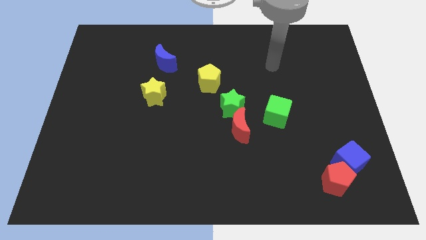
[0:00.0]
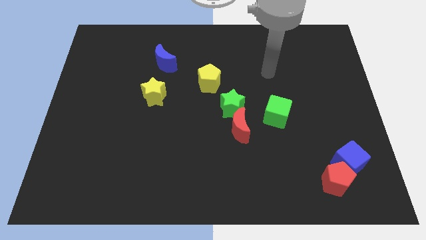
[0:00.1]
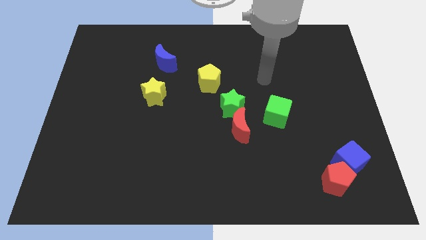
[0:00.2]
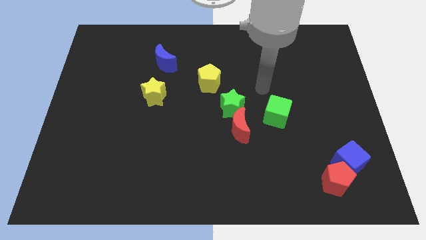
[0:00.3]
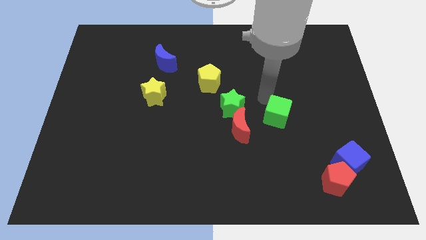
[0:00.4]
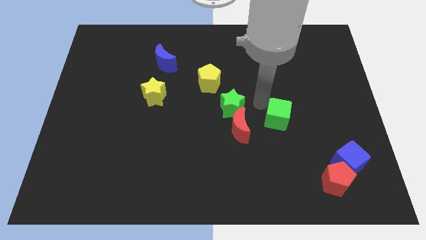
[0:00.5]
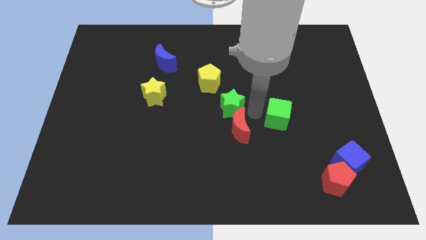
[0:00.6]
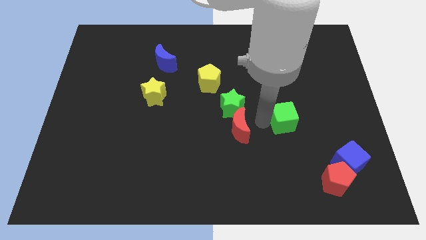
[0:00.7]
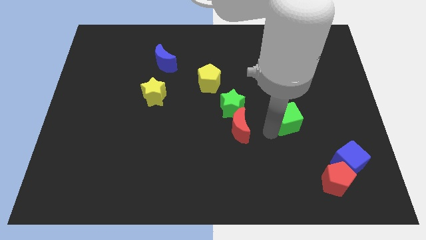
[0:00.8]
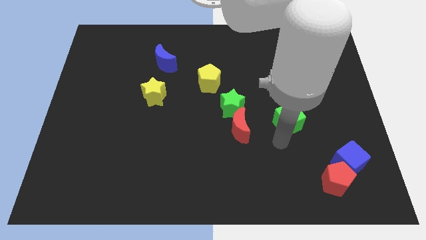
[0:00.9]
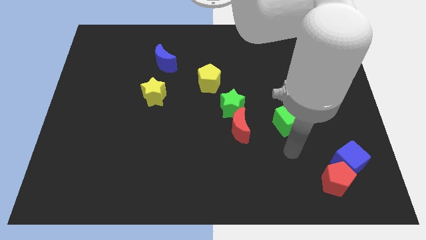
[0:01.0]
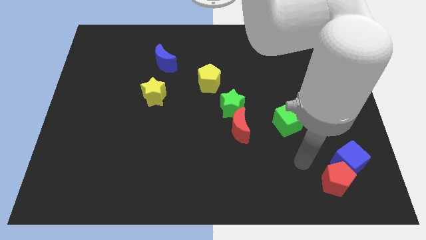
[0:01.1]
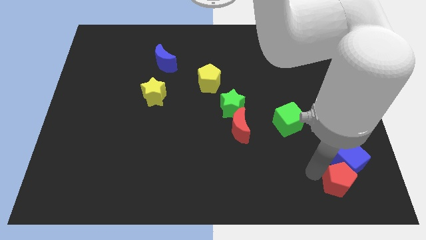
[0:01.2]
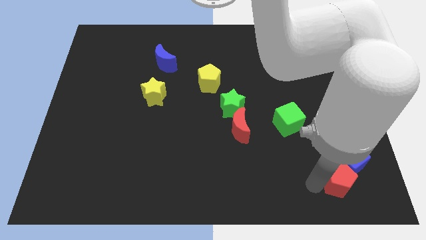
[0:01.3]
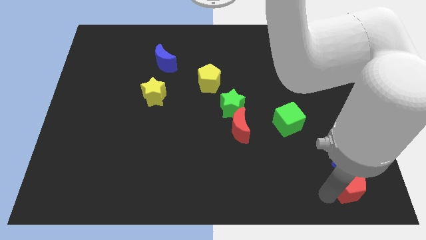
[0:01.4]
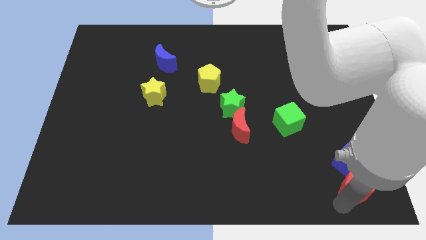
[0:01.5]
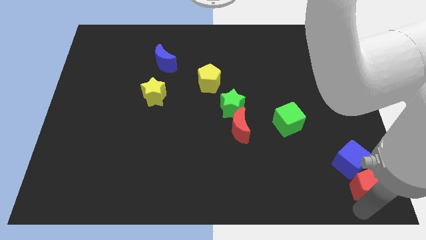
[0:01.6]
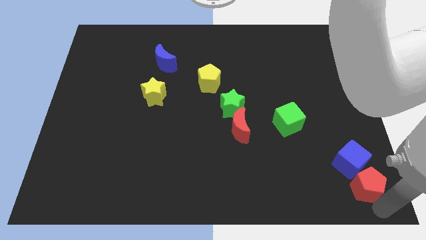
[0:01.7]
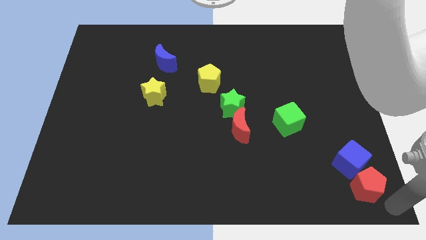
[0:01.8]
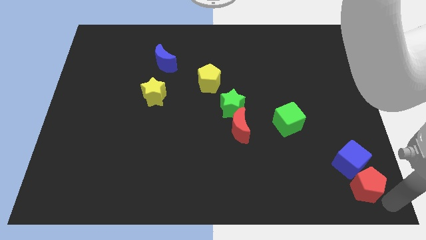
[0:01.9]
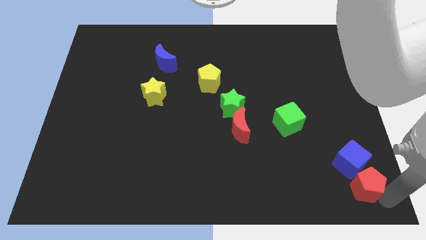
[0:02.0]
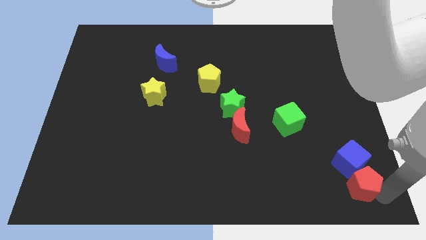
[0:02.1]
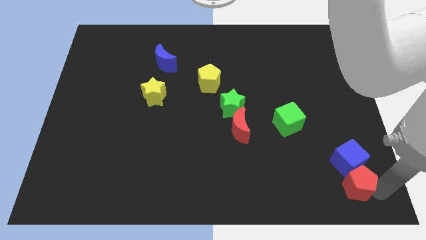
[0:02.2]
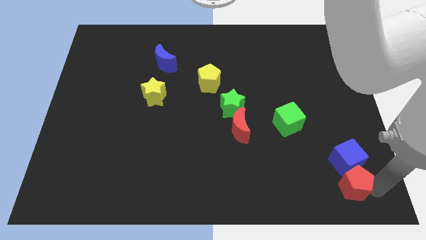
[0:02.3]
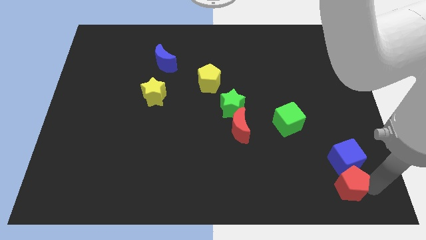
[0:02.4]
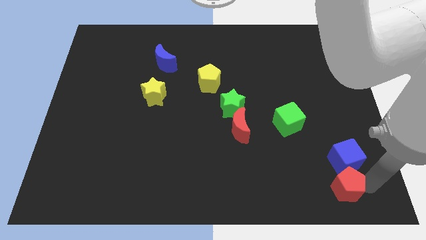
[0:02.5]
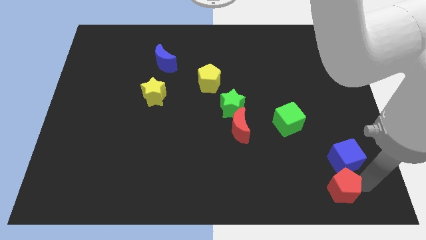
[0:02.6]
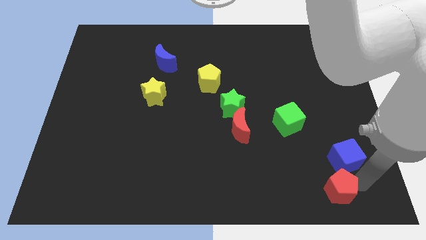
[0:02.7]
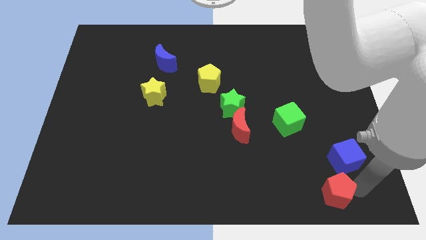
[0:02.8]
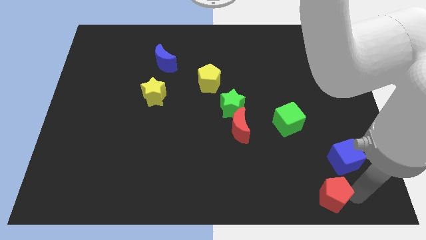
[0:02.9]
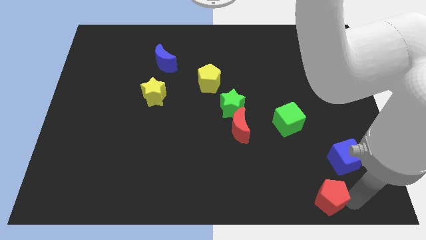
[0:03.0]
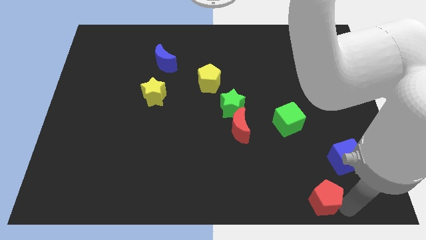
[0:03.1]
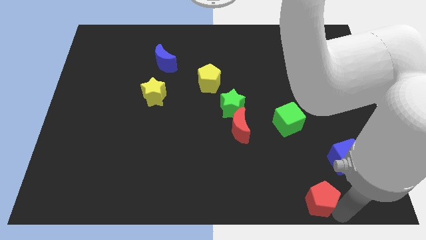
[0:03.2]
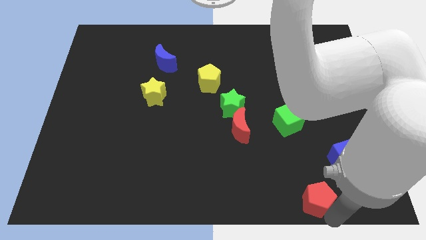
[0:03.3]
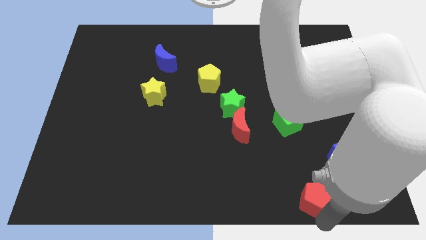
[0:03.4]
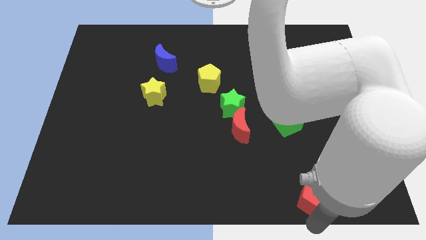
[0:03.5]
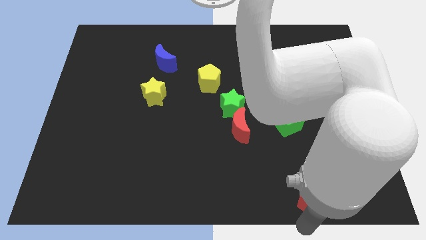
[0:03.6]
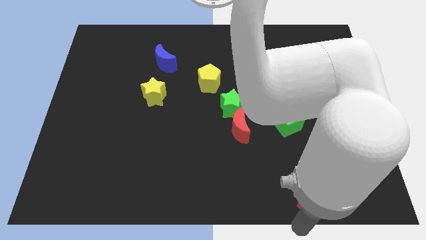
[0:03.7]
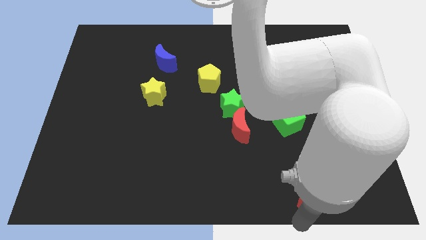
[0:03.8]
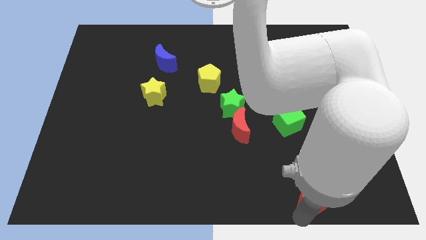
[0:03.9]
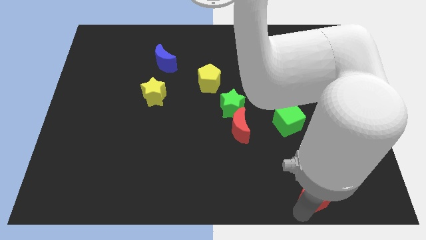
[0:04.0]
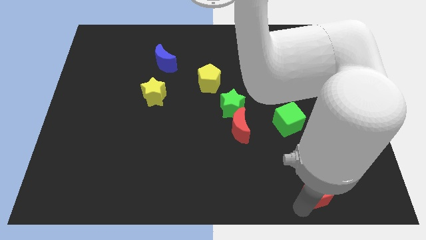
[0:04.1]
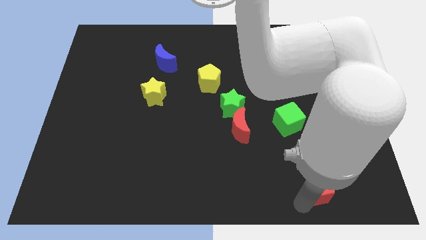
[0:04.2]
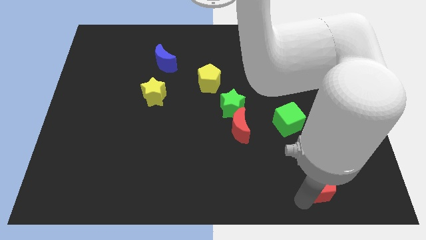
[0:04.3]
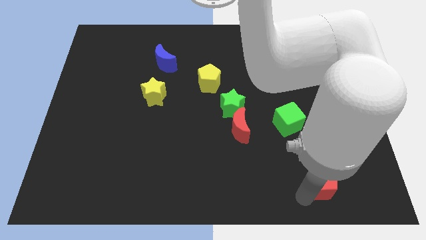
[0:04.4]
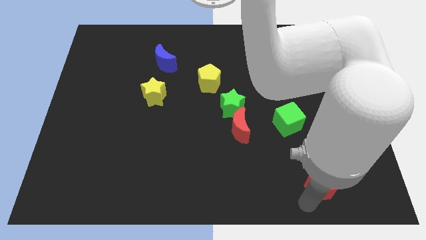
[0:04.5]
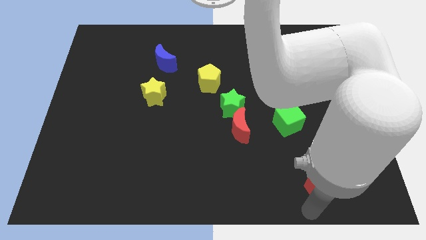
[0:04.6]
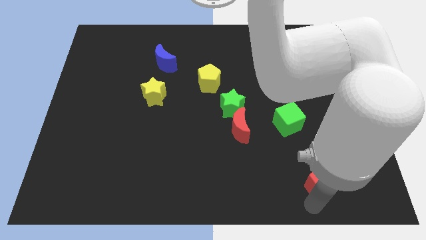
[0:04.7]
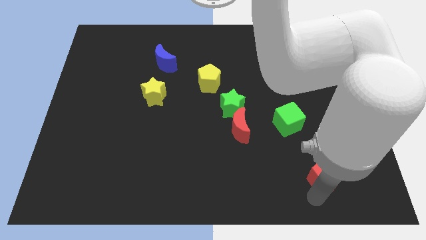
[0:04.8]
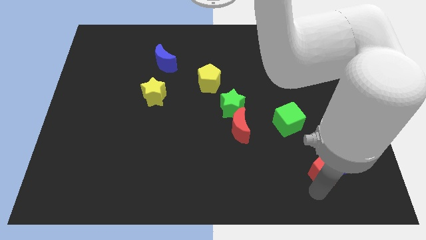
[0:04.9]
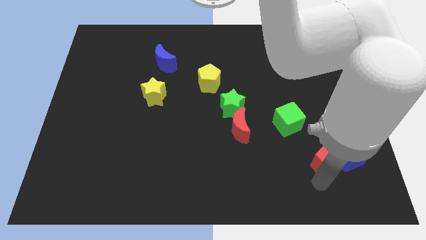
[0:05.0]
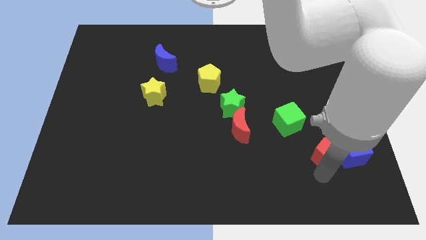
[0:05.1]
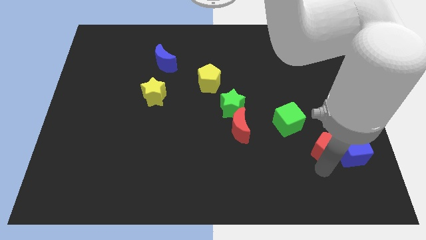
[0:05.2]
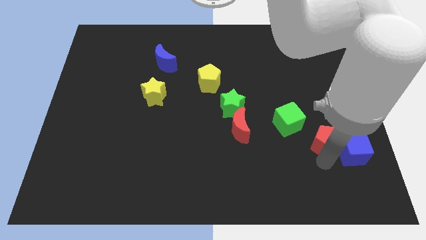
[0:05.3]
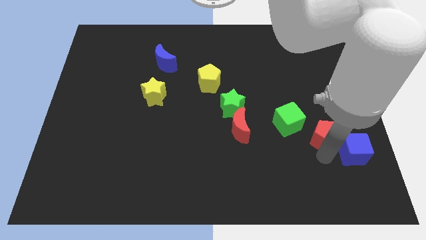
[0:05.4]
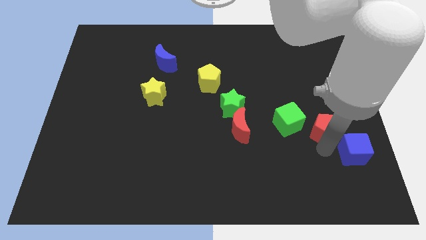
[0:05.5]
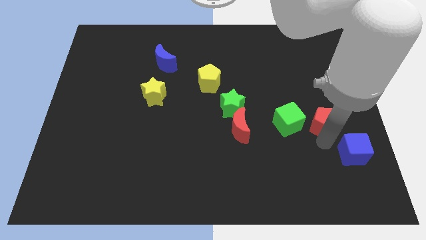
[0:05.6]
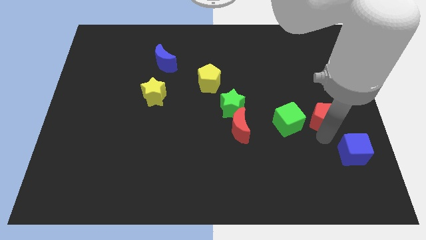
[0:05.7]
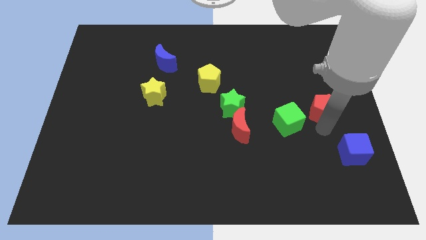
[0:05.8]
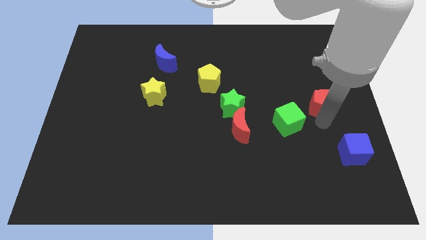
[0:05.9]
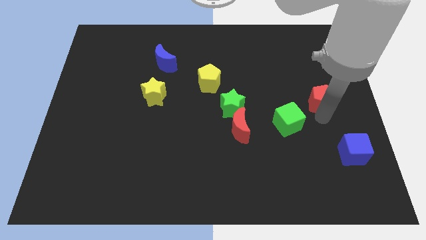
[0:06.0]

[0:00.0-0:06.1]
push the red pentagon upwards

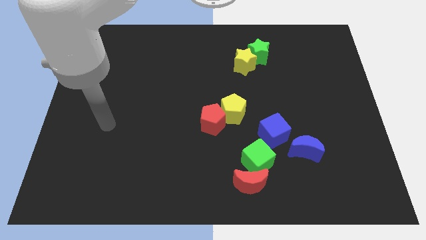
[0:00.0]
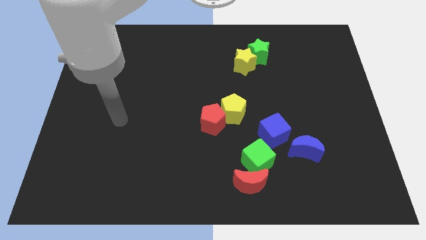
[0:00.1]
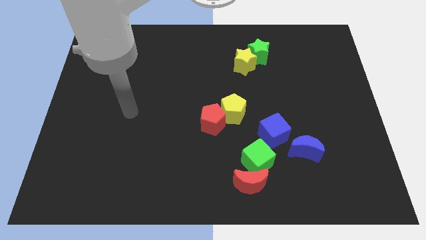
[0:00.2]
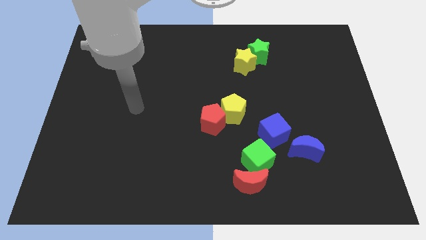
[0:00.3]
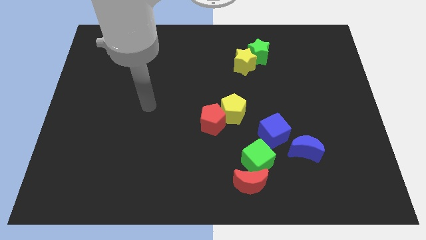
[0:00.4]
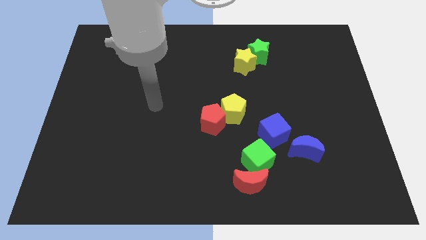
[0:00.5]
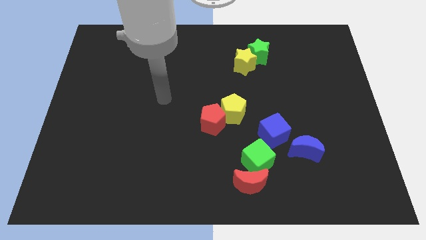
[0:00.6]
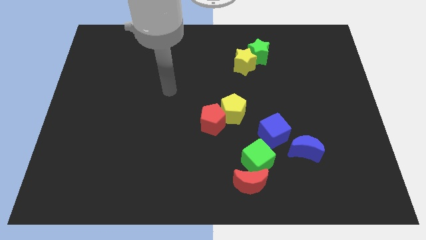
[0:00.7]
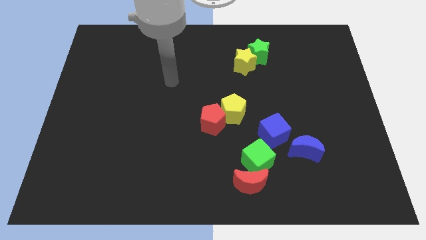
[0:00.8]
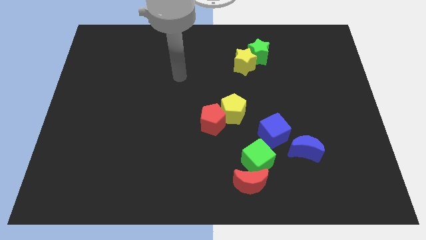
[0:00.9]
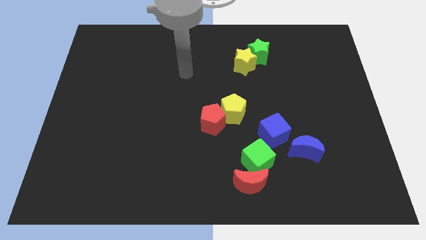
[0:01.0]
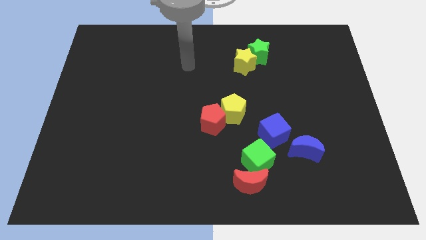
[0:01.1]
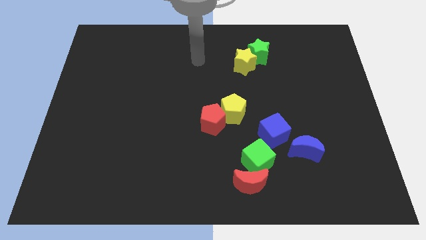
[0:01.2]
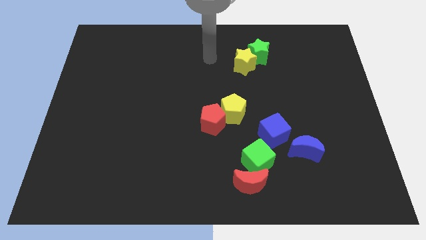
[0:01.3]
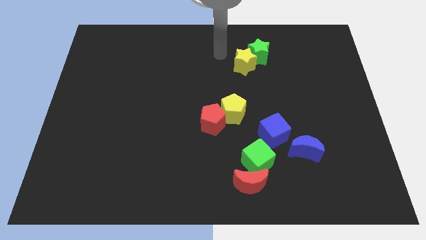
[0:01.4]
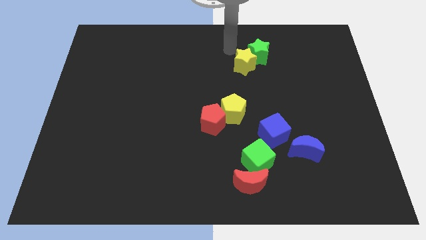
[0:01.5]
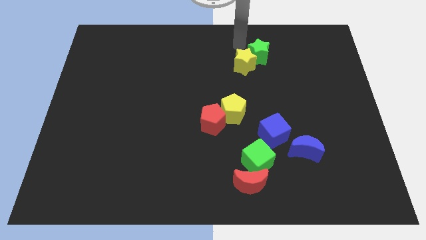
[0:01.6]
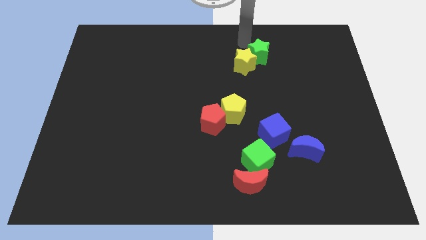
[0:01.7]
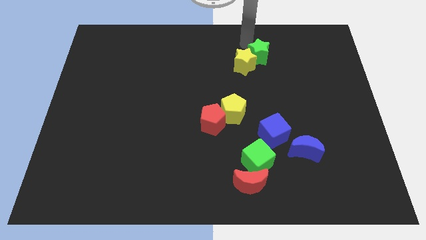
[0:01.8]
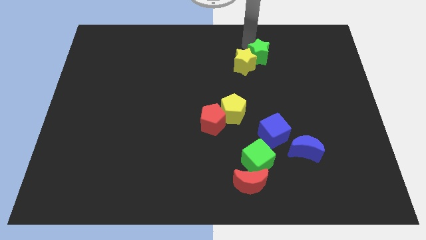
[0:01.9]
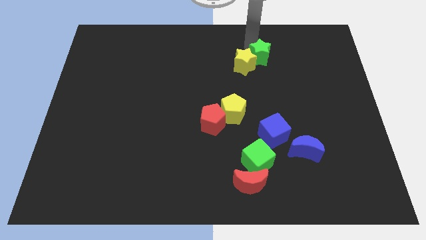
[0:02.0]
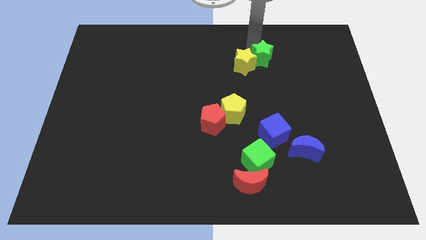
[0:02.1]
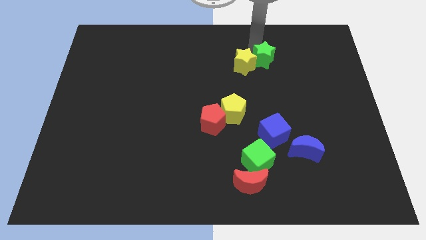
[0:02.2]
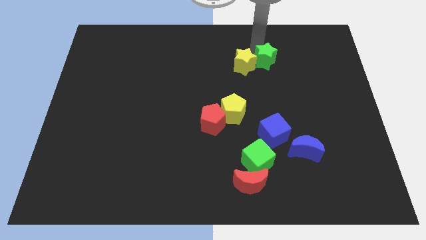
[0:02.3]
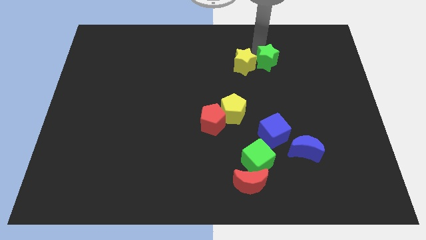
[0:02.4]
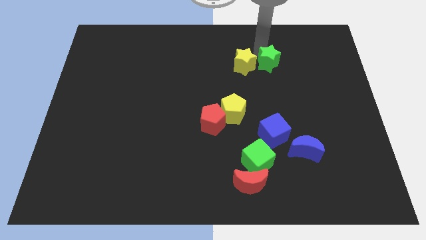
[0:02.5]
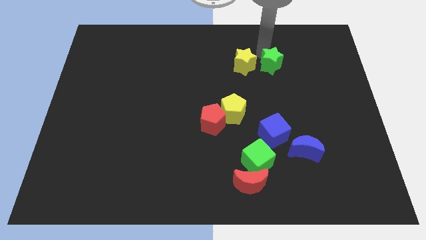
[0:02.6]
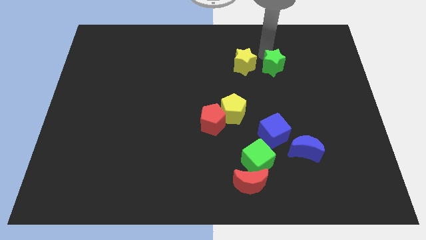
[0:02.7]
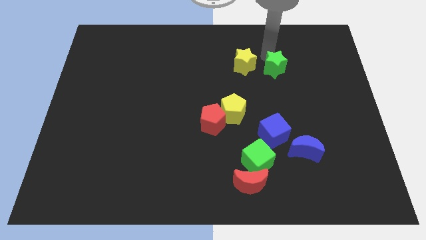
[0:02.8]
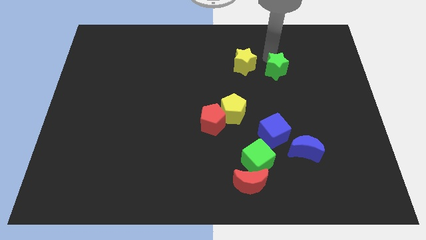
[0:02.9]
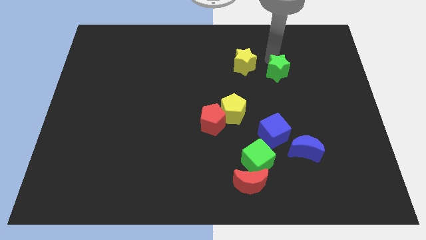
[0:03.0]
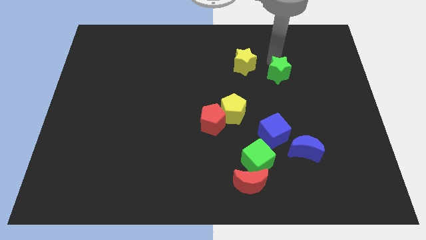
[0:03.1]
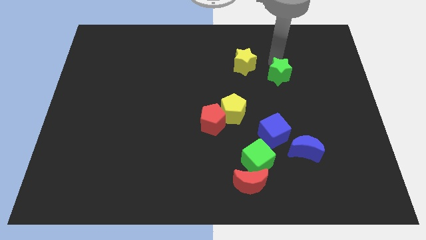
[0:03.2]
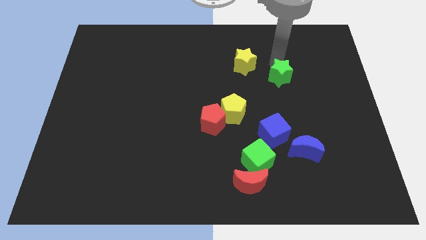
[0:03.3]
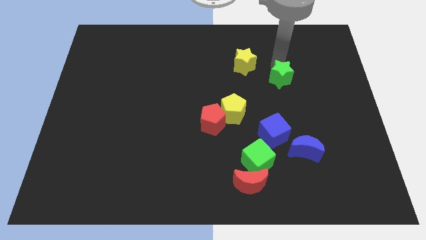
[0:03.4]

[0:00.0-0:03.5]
slightly push the green star downwards
